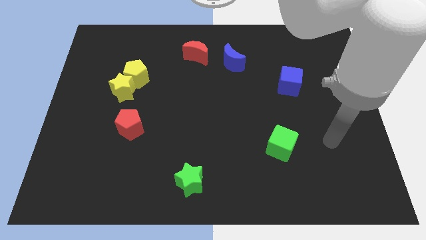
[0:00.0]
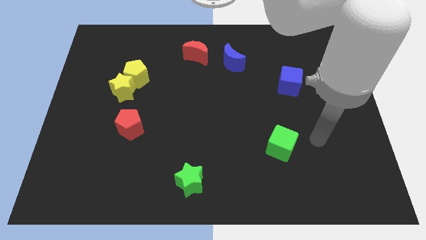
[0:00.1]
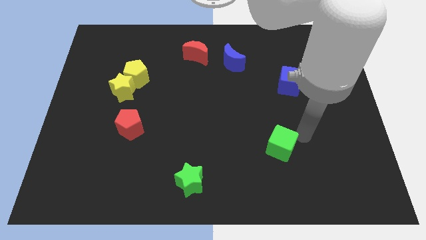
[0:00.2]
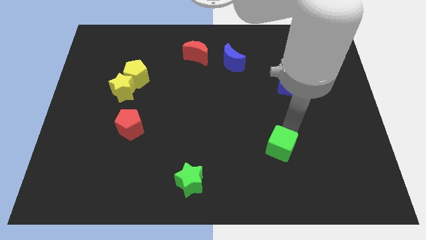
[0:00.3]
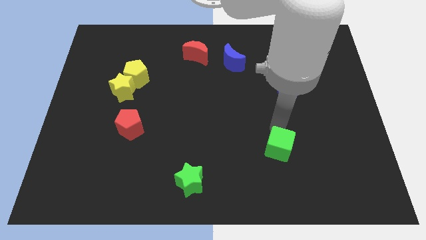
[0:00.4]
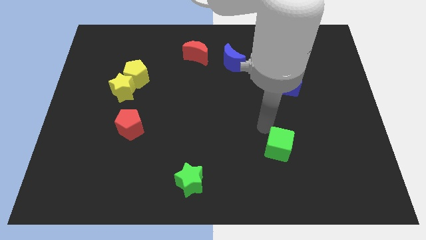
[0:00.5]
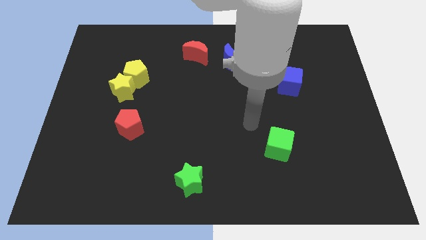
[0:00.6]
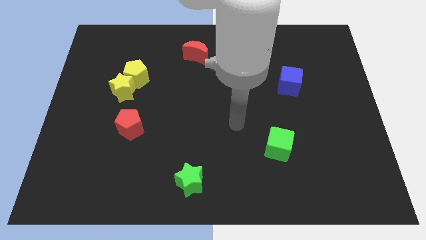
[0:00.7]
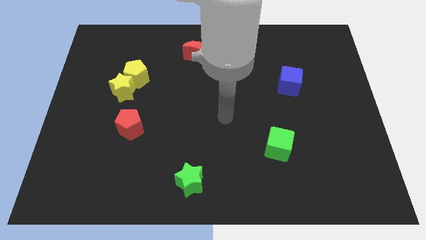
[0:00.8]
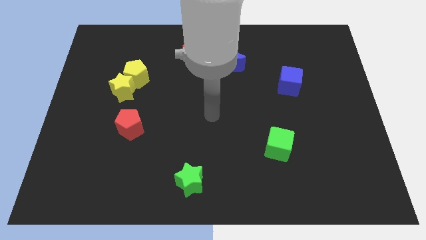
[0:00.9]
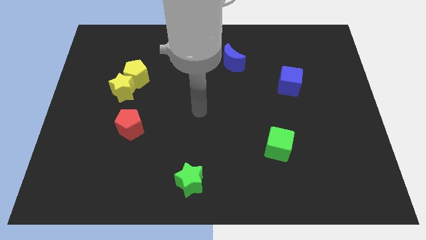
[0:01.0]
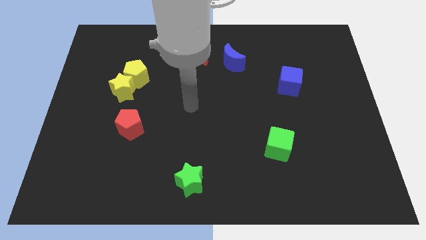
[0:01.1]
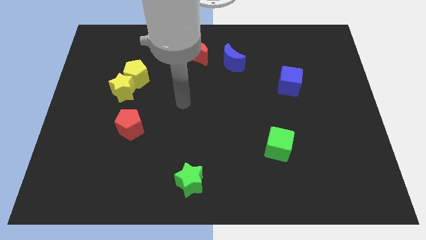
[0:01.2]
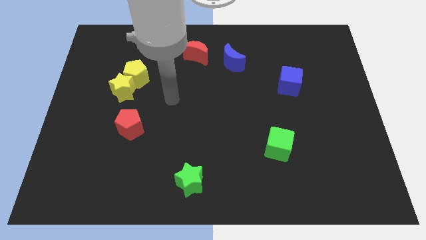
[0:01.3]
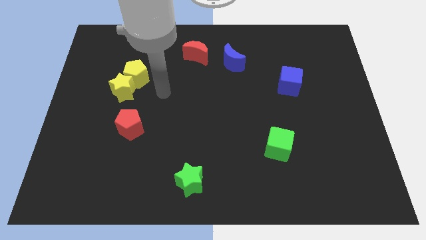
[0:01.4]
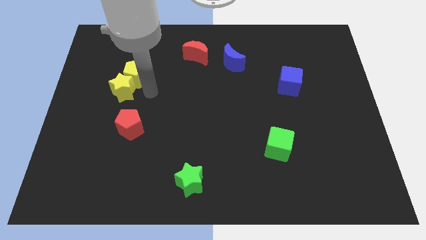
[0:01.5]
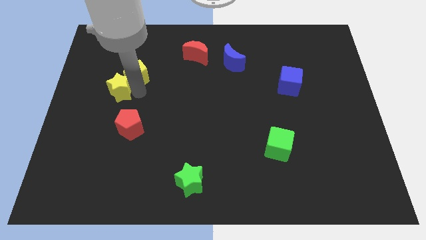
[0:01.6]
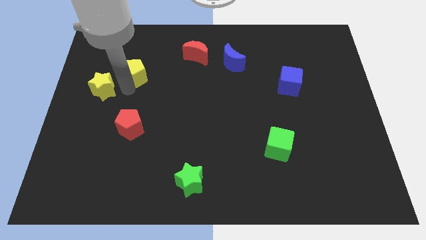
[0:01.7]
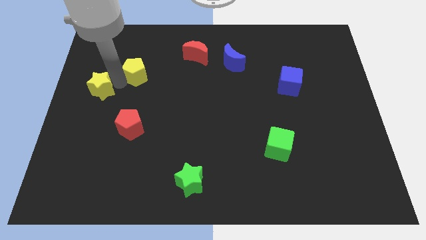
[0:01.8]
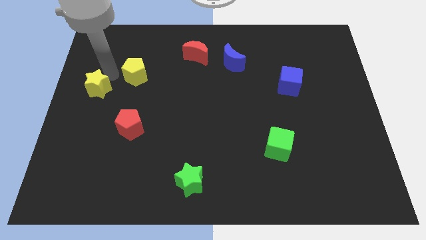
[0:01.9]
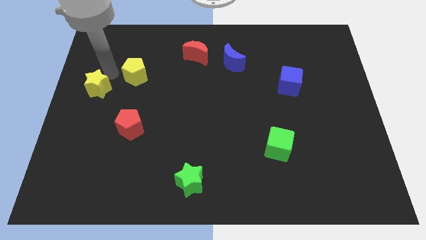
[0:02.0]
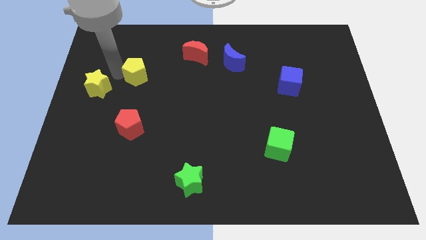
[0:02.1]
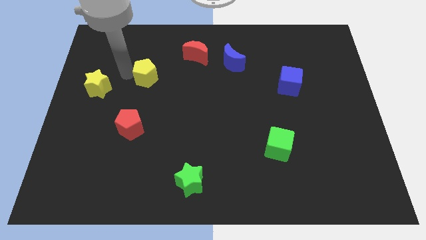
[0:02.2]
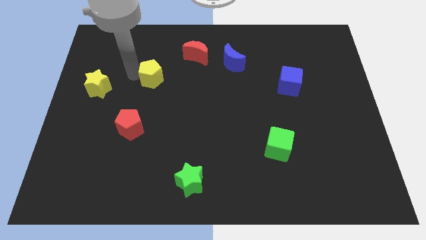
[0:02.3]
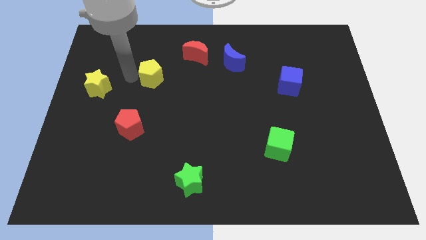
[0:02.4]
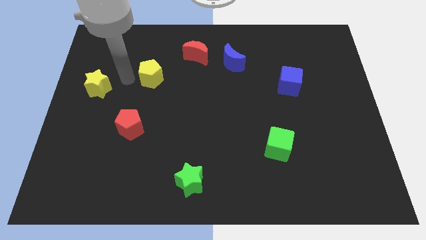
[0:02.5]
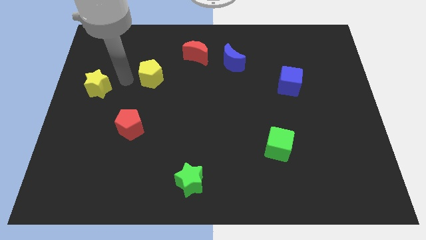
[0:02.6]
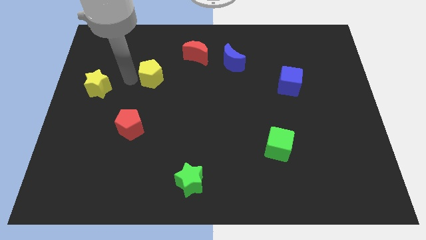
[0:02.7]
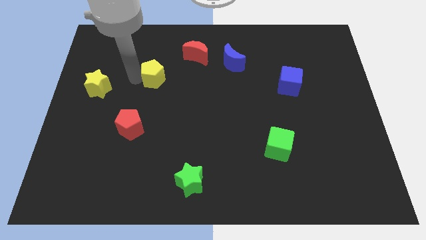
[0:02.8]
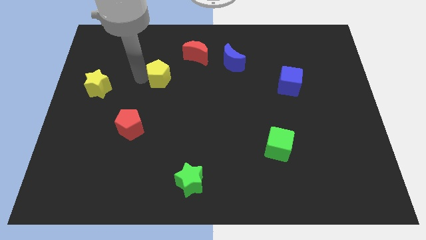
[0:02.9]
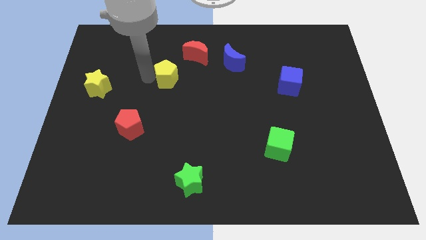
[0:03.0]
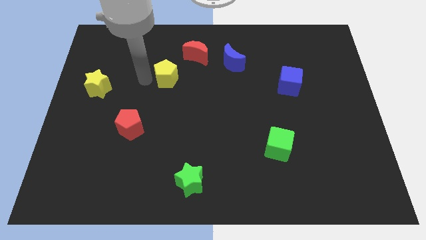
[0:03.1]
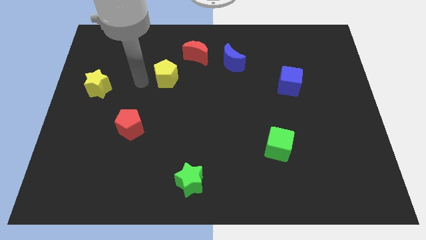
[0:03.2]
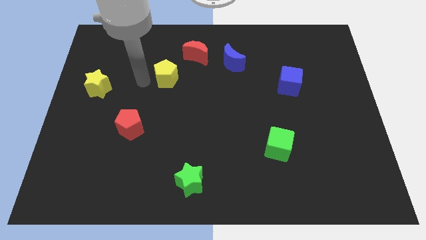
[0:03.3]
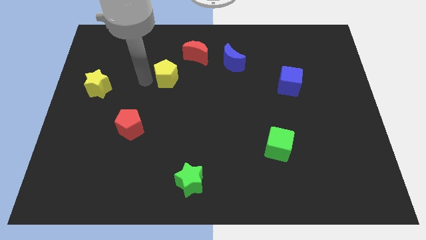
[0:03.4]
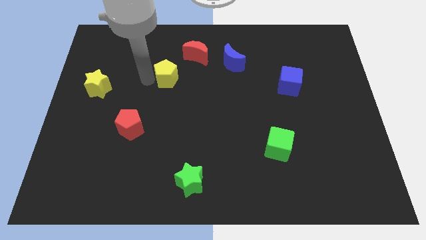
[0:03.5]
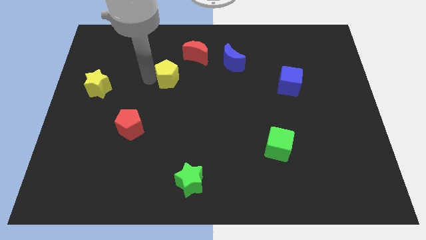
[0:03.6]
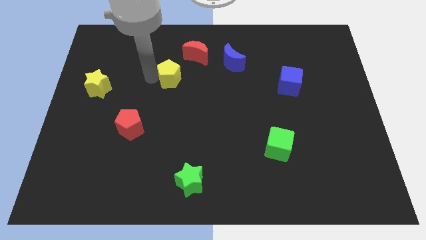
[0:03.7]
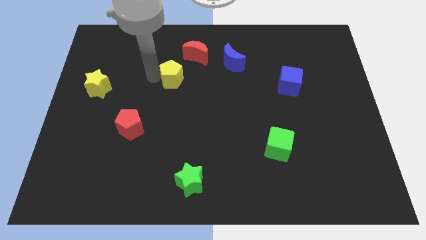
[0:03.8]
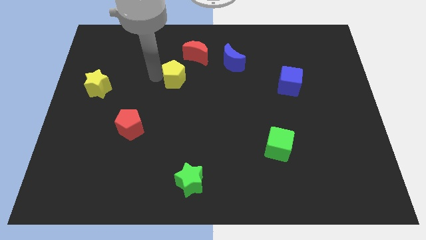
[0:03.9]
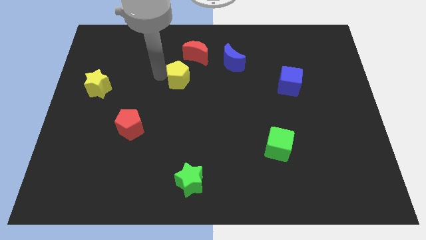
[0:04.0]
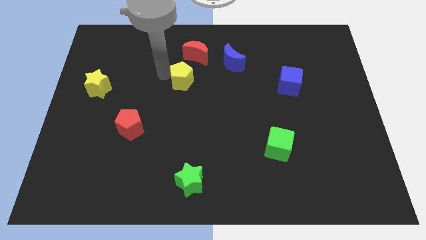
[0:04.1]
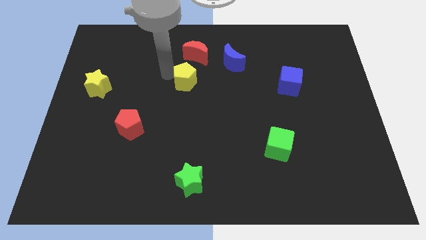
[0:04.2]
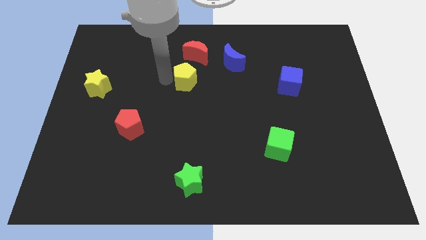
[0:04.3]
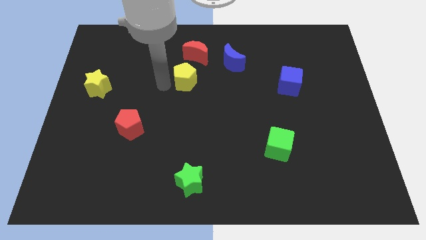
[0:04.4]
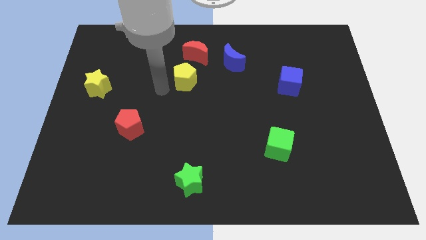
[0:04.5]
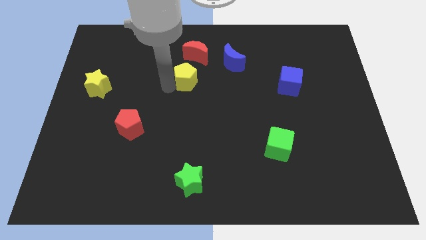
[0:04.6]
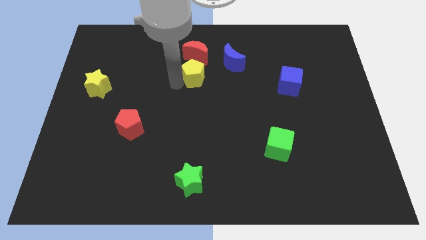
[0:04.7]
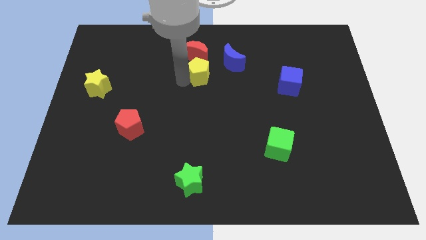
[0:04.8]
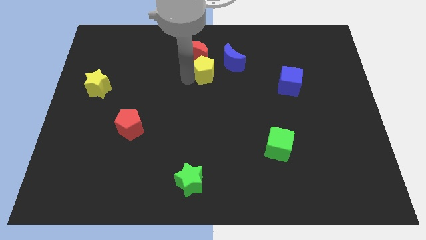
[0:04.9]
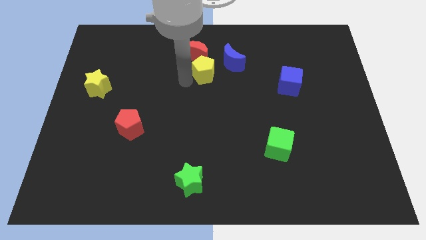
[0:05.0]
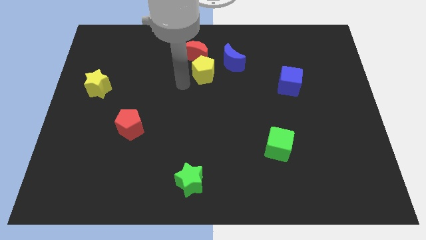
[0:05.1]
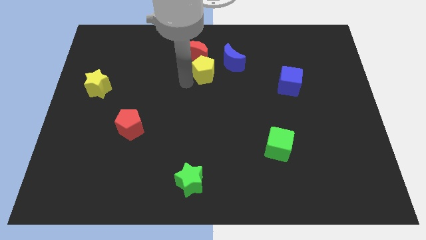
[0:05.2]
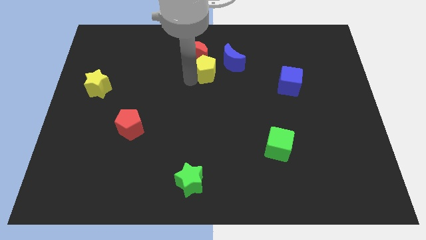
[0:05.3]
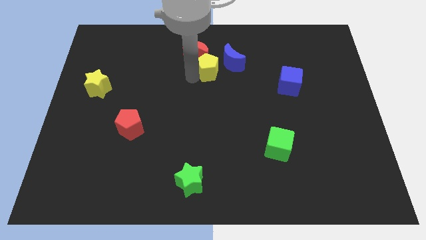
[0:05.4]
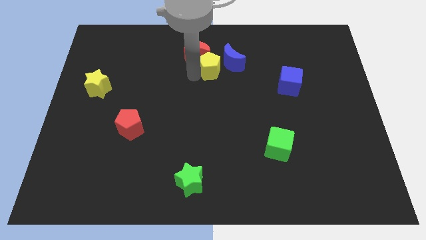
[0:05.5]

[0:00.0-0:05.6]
put the yellow pentagon to the blue moon

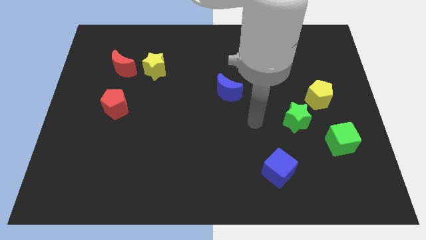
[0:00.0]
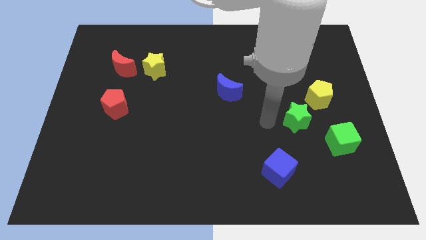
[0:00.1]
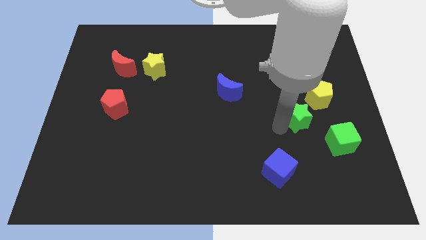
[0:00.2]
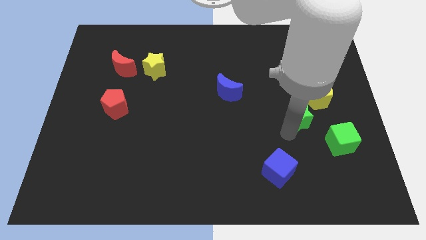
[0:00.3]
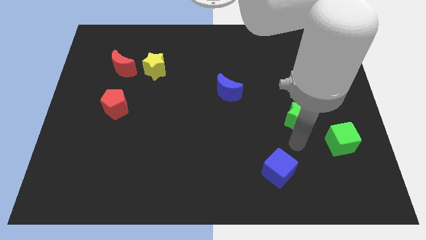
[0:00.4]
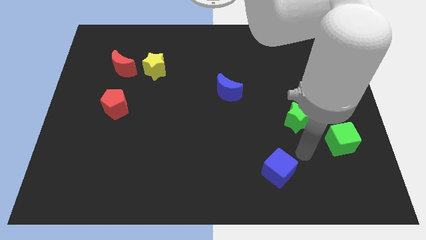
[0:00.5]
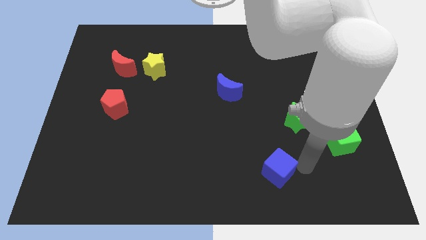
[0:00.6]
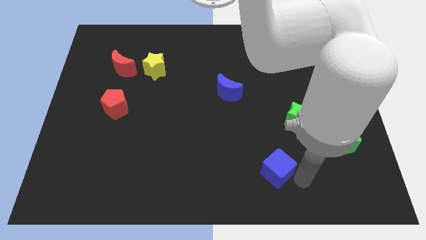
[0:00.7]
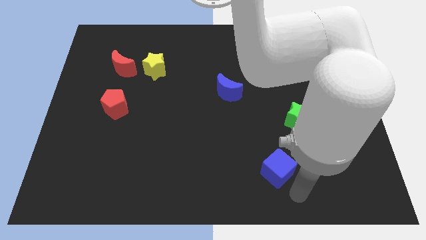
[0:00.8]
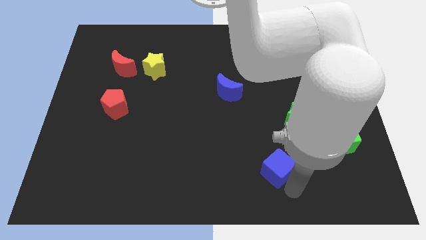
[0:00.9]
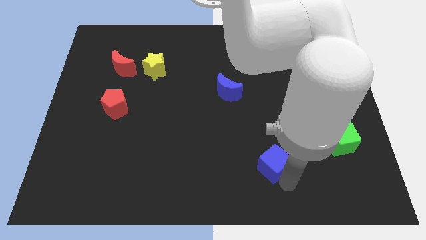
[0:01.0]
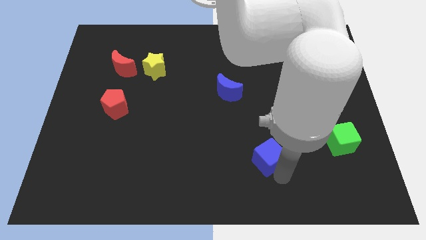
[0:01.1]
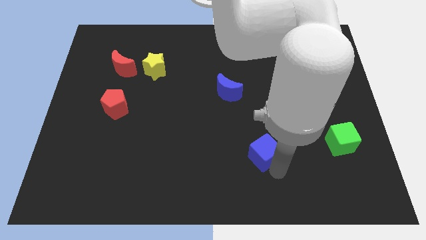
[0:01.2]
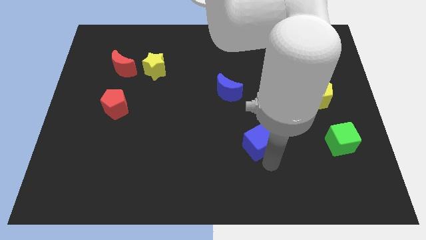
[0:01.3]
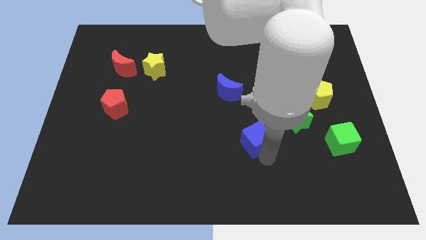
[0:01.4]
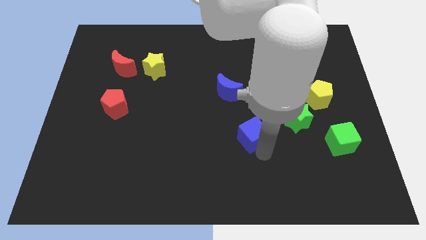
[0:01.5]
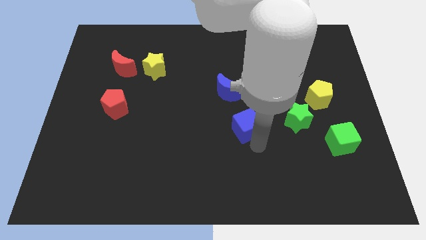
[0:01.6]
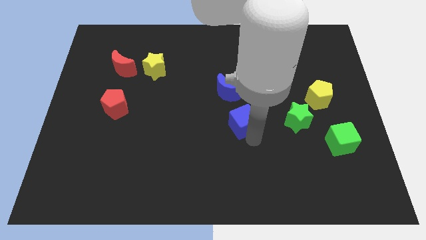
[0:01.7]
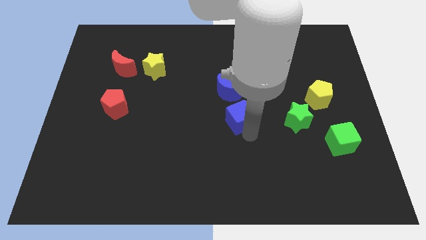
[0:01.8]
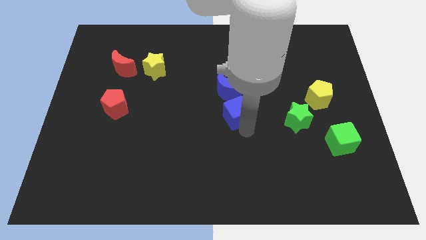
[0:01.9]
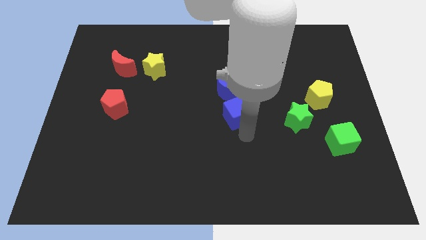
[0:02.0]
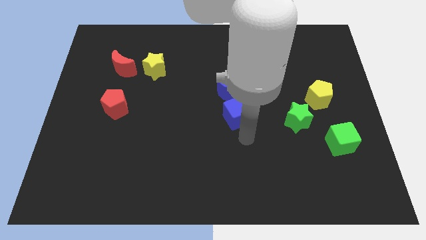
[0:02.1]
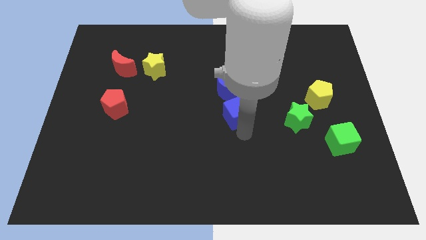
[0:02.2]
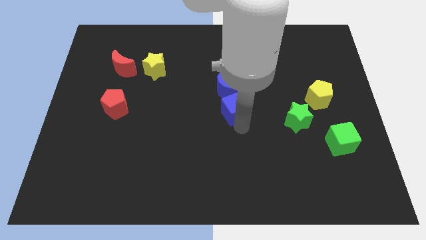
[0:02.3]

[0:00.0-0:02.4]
move the blue cube next to the blue moon
